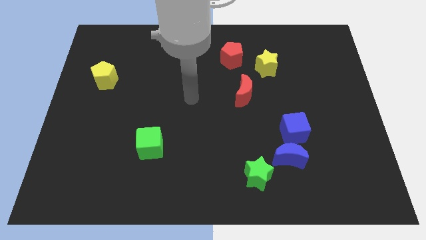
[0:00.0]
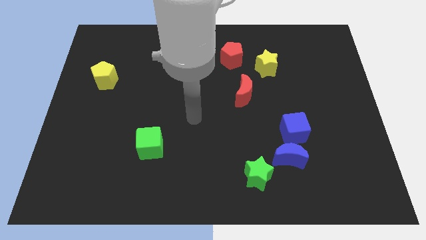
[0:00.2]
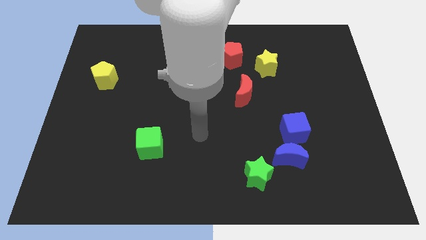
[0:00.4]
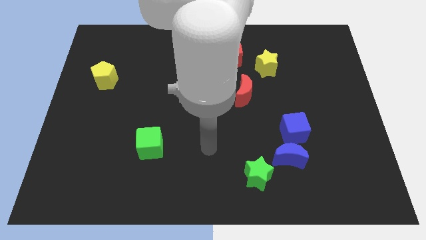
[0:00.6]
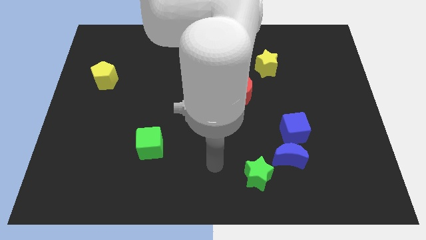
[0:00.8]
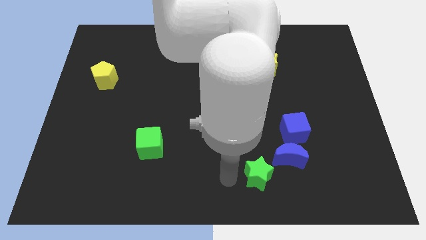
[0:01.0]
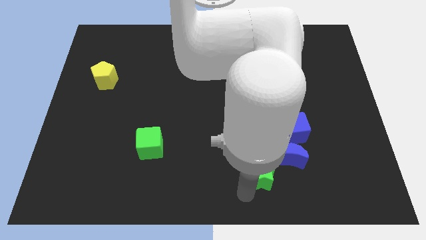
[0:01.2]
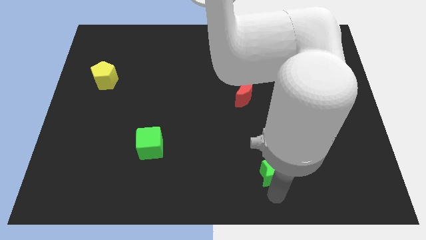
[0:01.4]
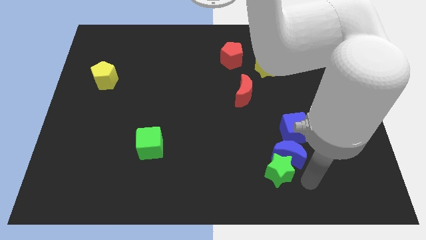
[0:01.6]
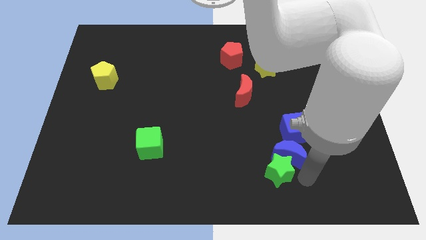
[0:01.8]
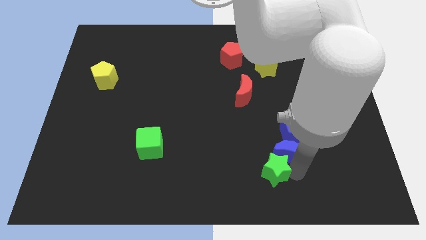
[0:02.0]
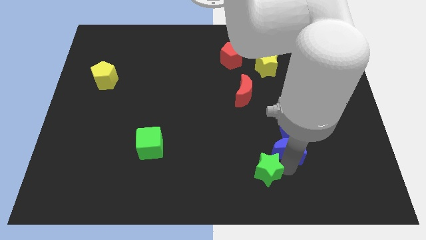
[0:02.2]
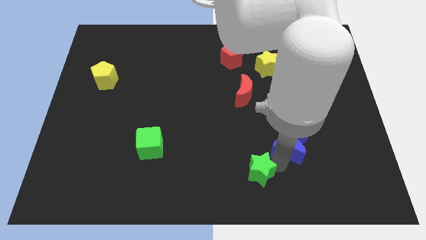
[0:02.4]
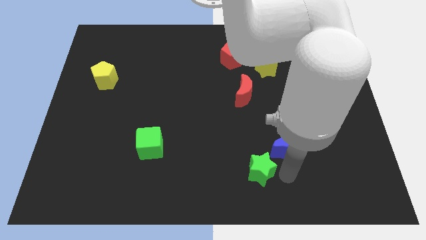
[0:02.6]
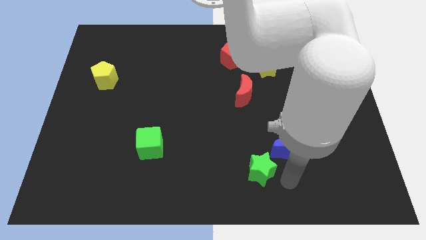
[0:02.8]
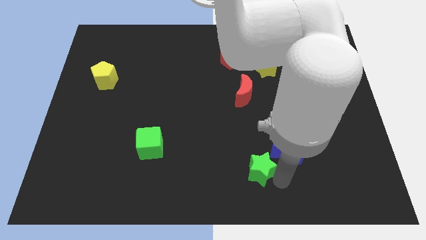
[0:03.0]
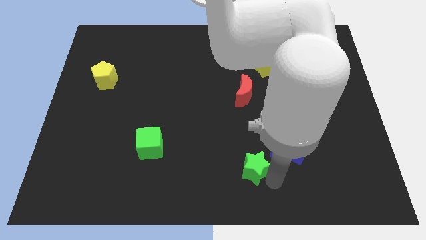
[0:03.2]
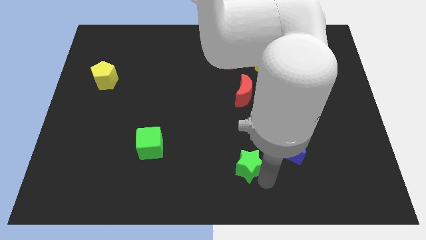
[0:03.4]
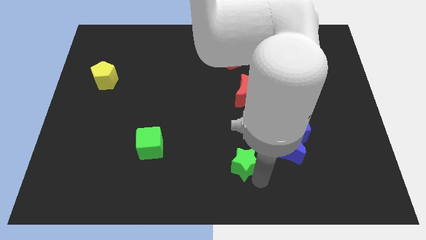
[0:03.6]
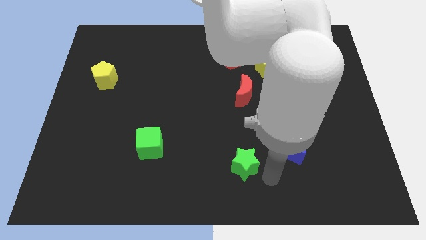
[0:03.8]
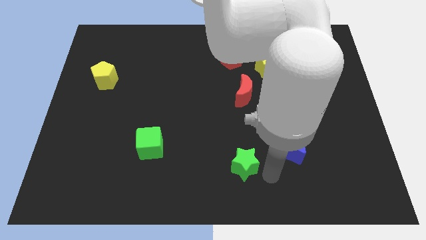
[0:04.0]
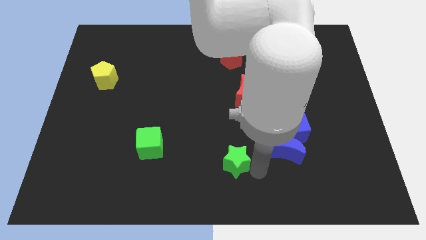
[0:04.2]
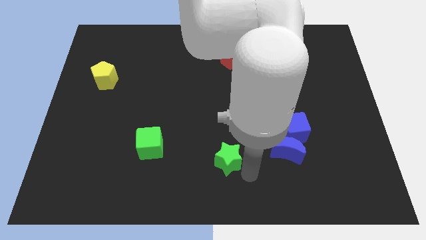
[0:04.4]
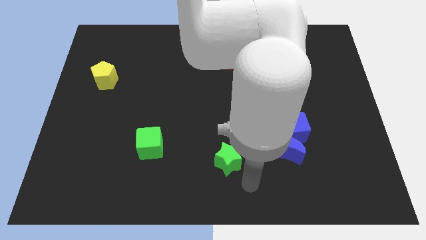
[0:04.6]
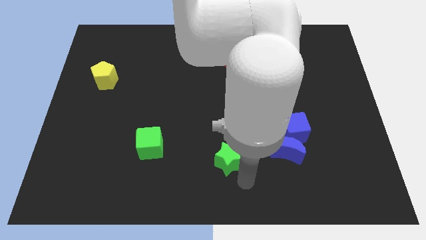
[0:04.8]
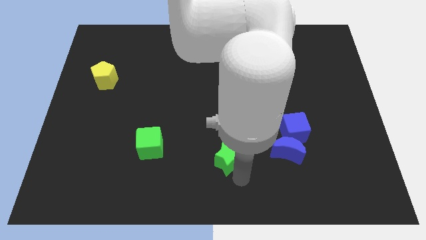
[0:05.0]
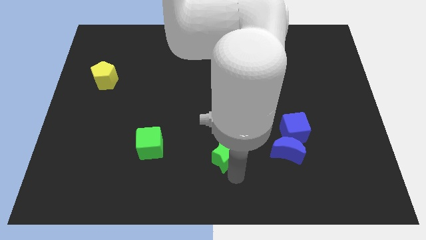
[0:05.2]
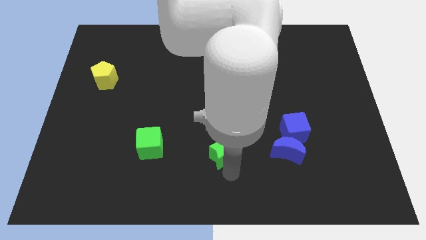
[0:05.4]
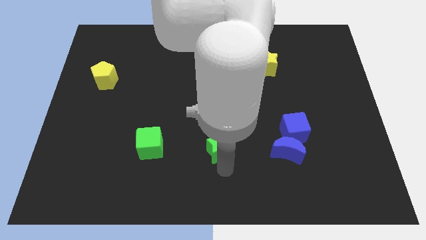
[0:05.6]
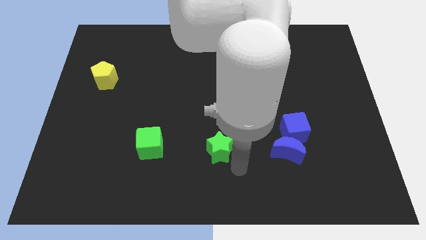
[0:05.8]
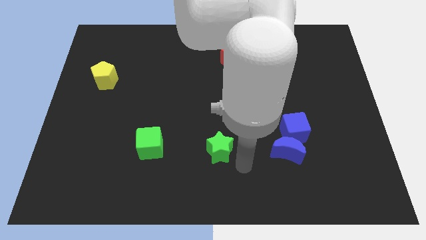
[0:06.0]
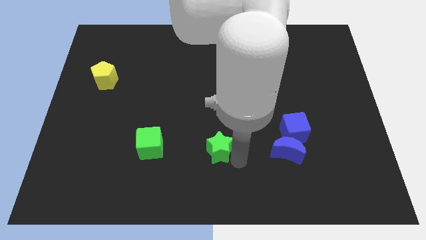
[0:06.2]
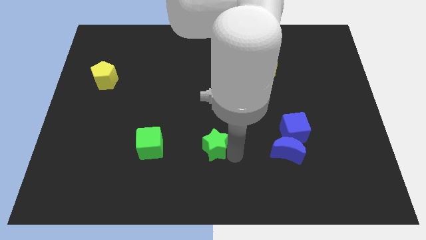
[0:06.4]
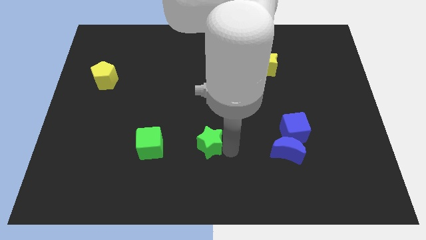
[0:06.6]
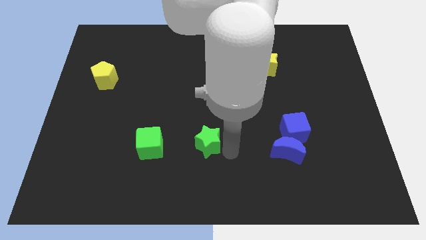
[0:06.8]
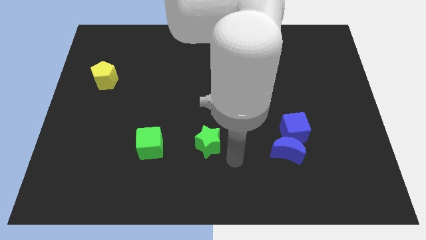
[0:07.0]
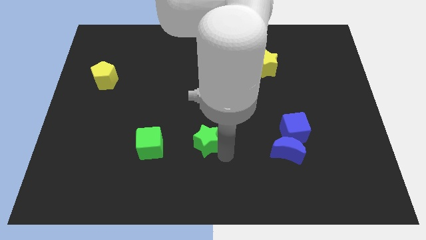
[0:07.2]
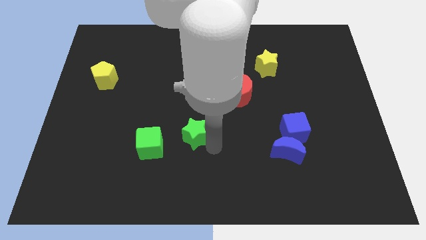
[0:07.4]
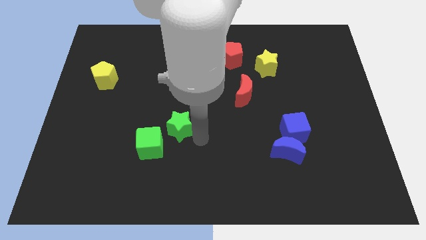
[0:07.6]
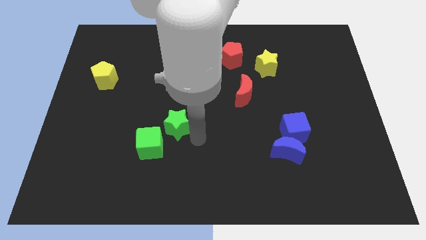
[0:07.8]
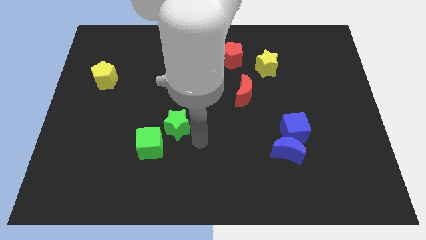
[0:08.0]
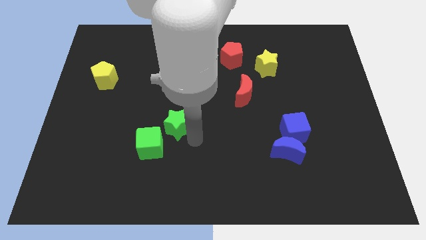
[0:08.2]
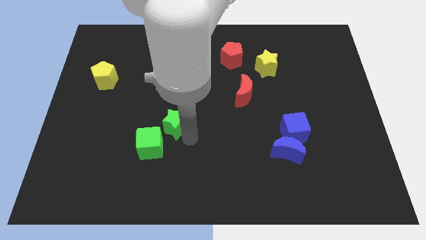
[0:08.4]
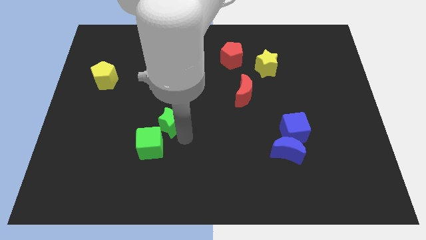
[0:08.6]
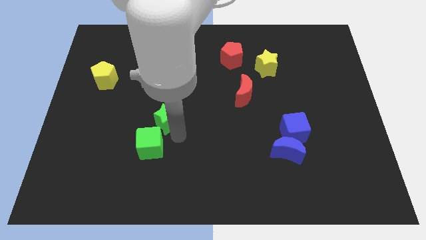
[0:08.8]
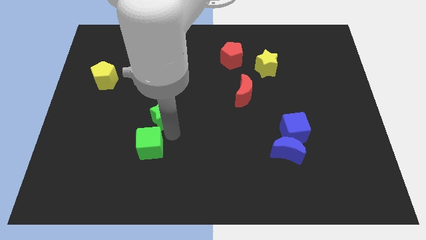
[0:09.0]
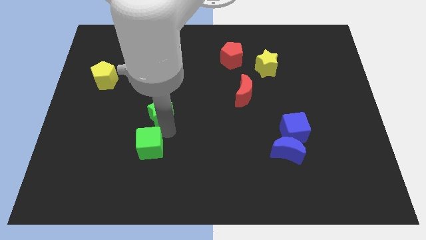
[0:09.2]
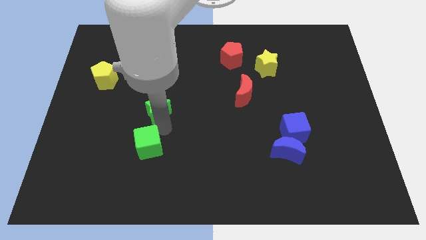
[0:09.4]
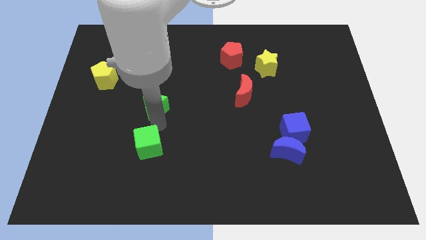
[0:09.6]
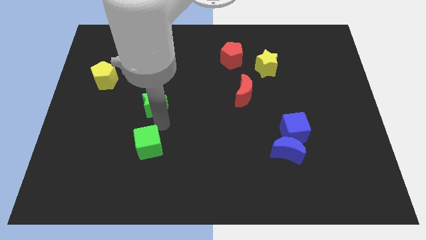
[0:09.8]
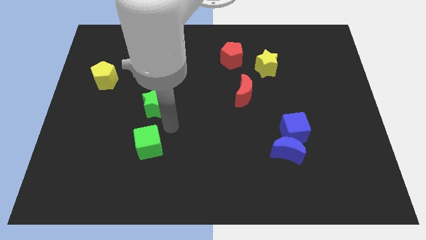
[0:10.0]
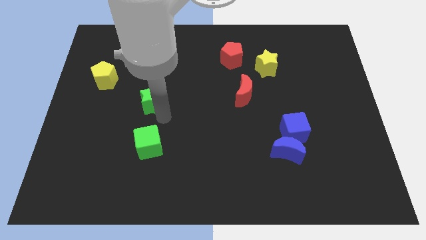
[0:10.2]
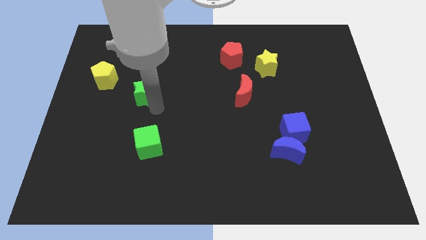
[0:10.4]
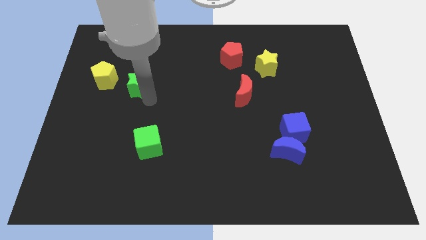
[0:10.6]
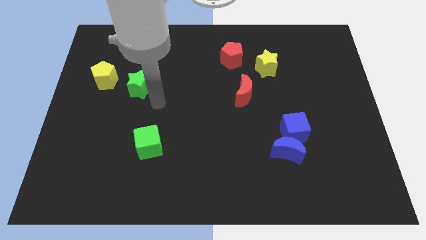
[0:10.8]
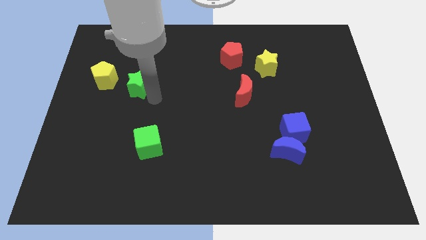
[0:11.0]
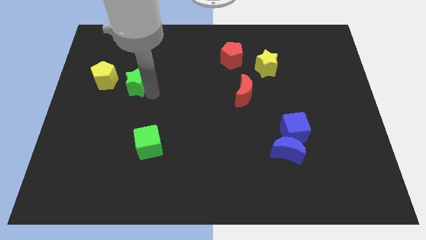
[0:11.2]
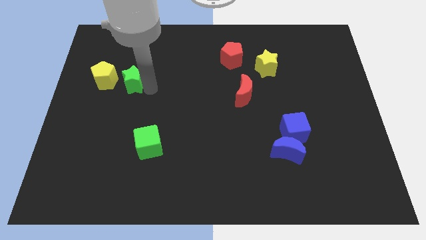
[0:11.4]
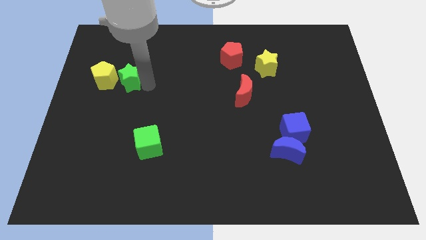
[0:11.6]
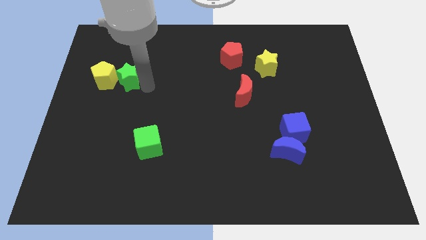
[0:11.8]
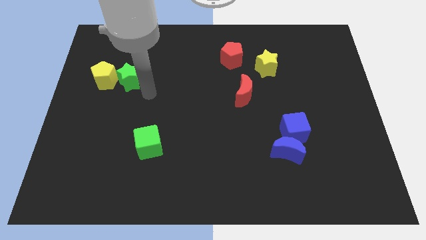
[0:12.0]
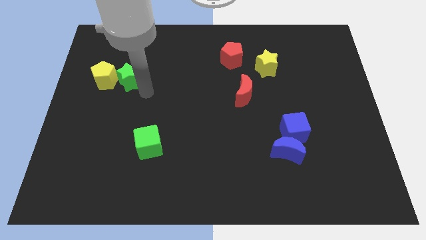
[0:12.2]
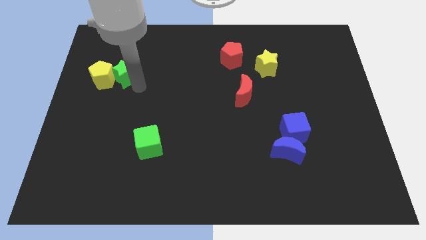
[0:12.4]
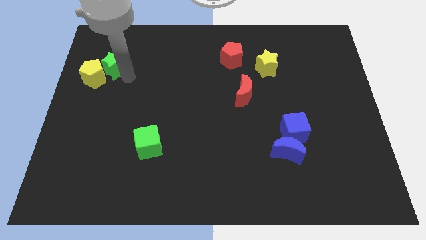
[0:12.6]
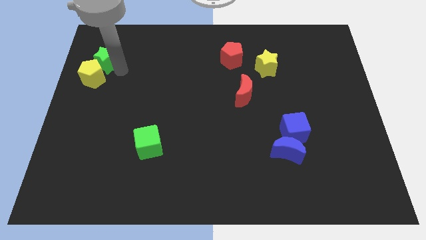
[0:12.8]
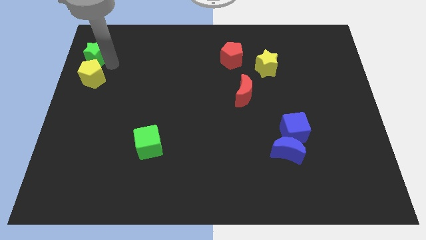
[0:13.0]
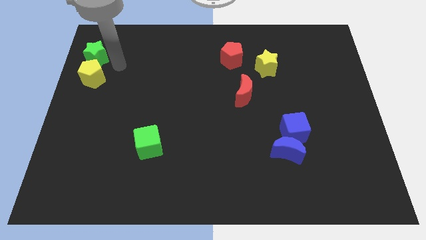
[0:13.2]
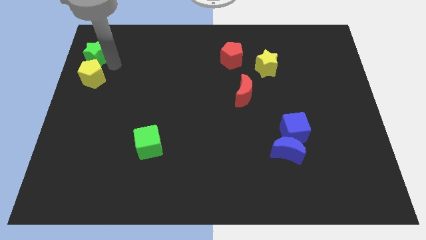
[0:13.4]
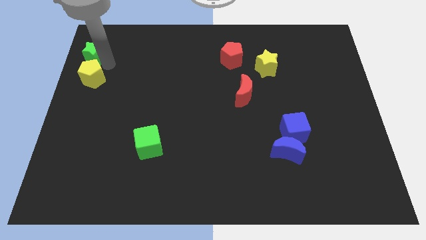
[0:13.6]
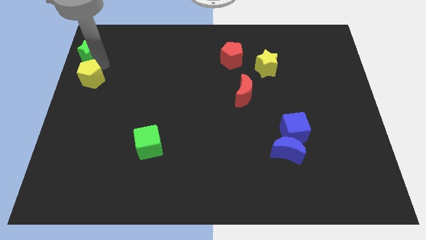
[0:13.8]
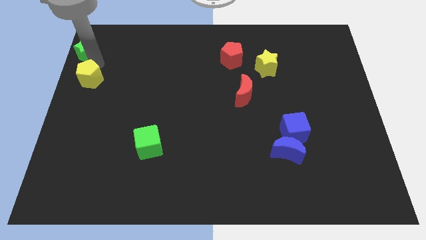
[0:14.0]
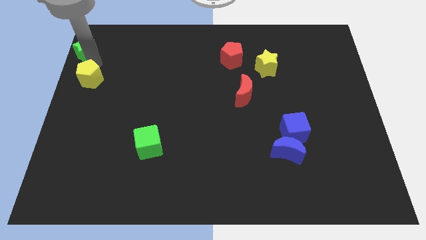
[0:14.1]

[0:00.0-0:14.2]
push the green star to the top left
